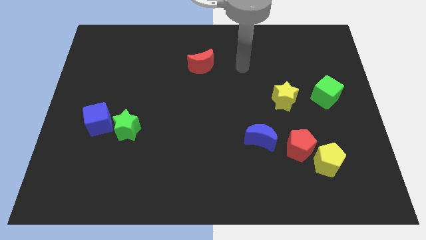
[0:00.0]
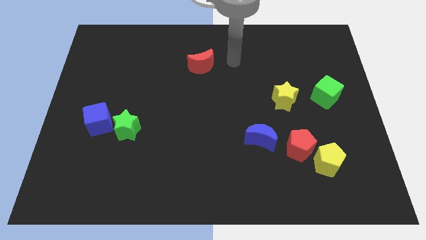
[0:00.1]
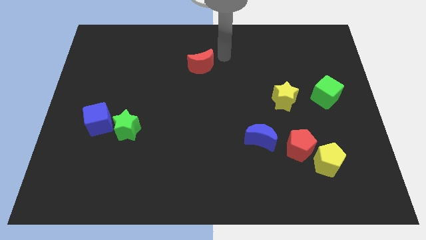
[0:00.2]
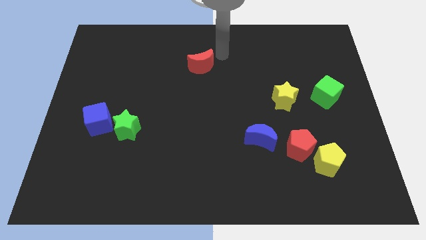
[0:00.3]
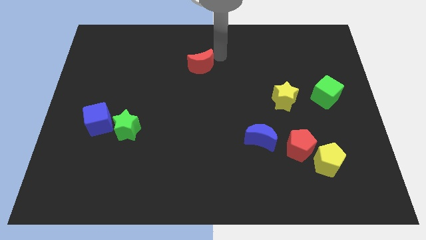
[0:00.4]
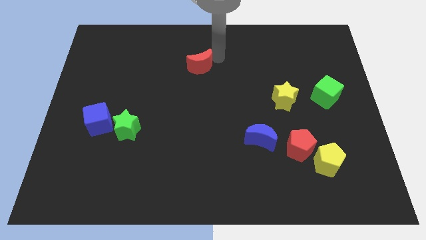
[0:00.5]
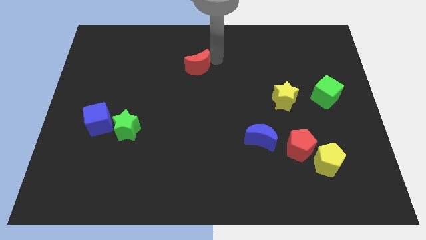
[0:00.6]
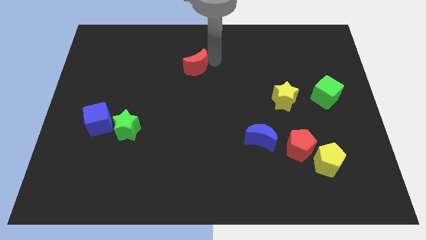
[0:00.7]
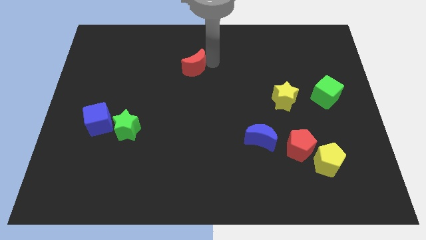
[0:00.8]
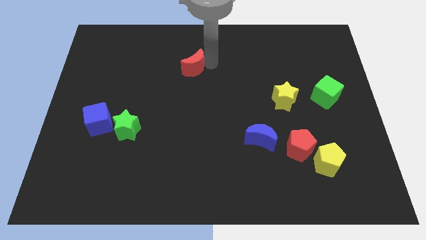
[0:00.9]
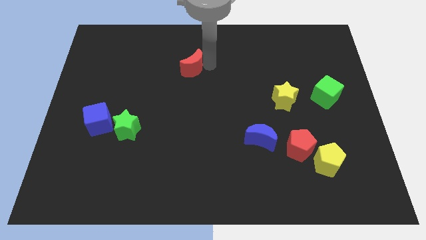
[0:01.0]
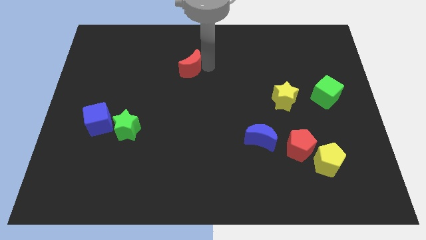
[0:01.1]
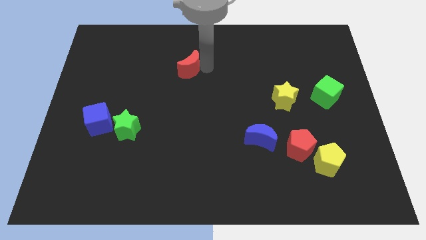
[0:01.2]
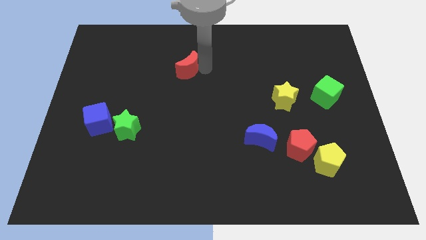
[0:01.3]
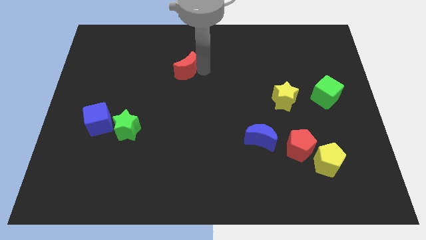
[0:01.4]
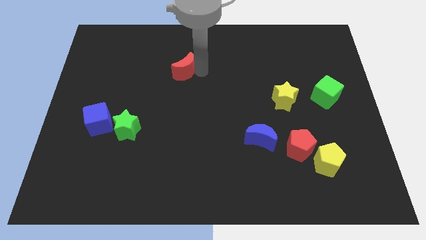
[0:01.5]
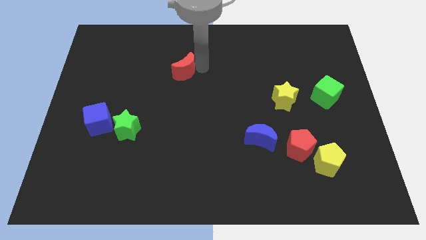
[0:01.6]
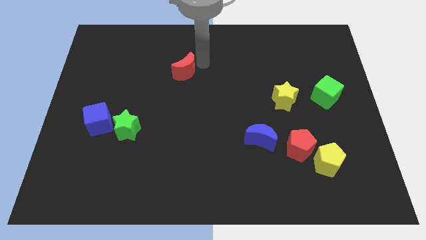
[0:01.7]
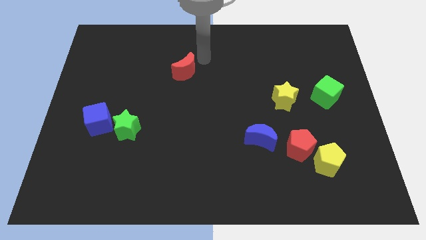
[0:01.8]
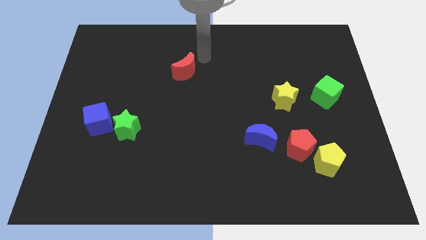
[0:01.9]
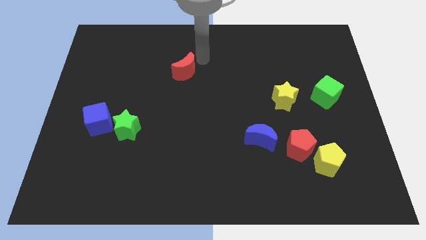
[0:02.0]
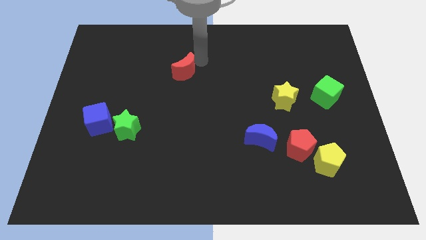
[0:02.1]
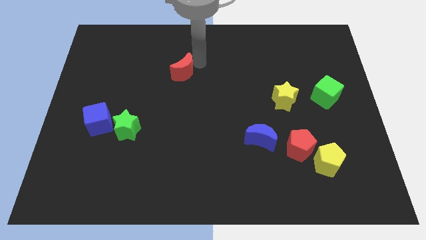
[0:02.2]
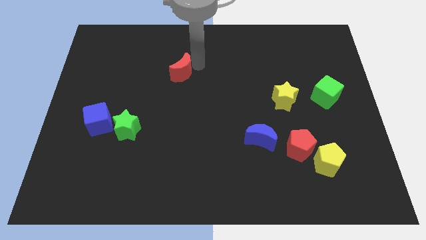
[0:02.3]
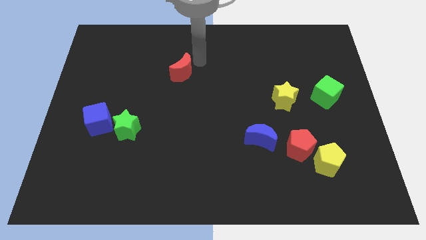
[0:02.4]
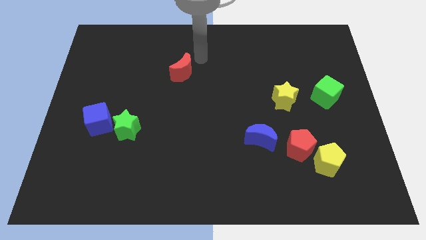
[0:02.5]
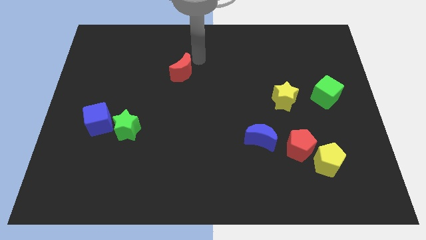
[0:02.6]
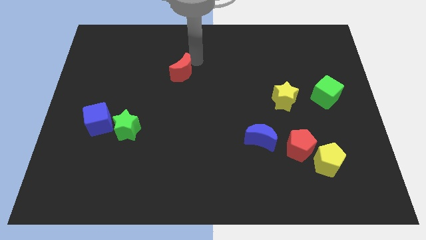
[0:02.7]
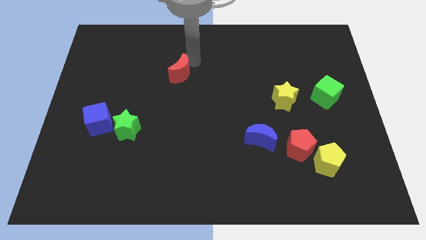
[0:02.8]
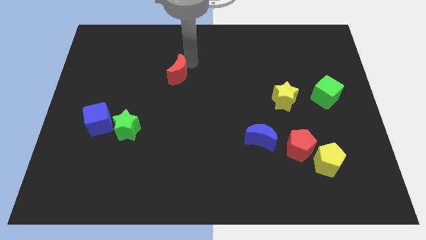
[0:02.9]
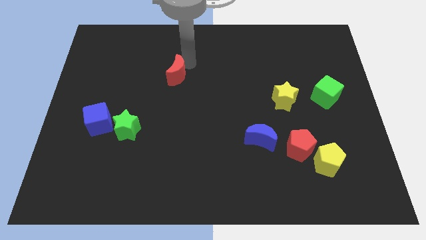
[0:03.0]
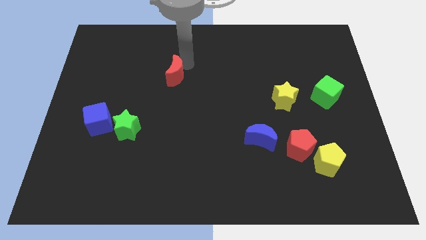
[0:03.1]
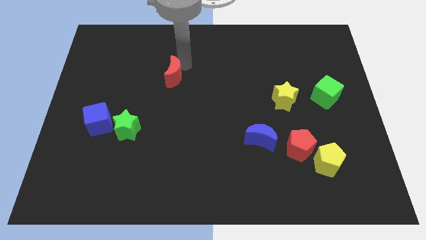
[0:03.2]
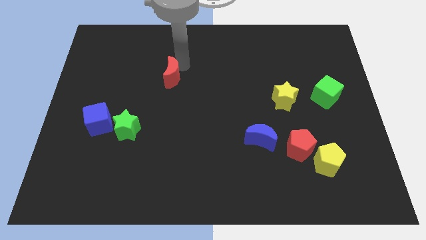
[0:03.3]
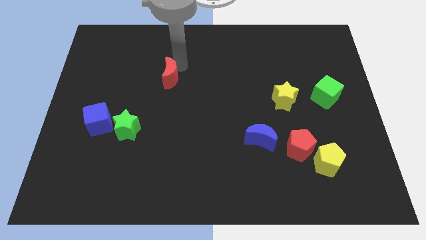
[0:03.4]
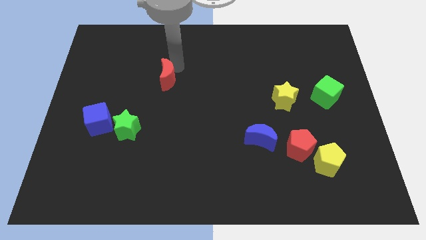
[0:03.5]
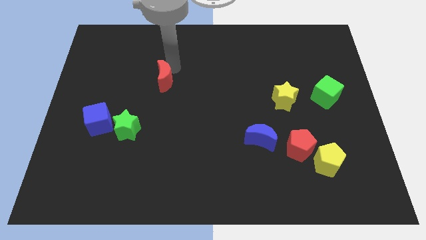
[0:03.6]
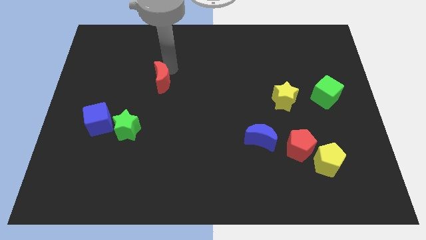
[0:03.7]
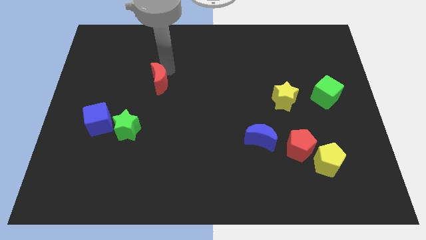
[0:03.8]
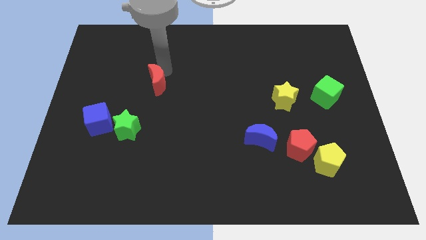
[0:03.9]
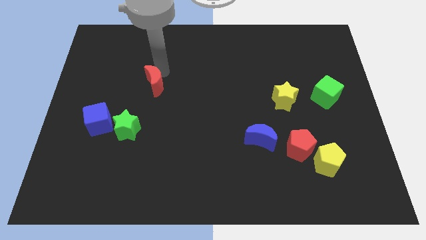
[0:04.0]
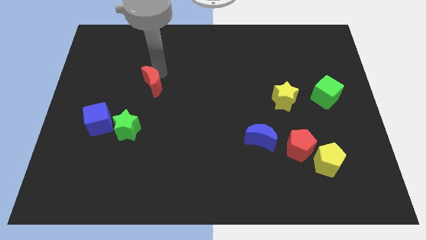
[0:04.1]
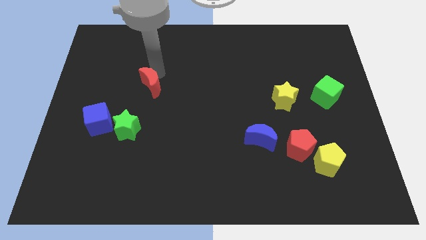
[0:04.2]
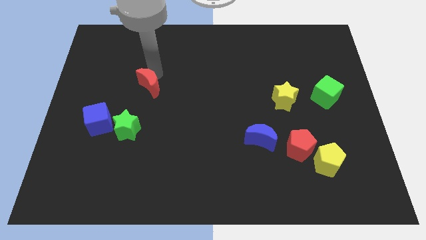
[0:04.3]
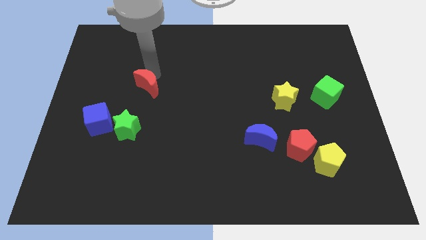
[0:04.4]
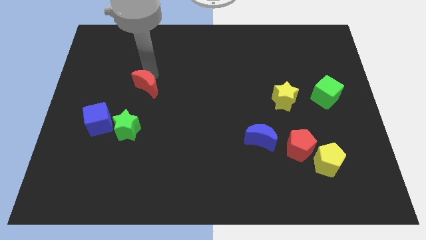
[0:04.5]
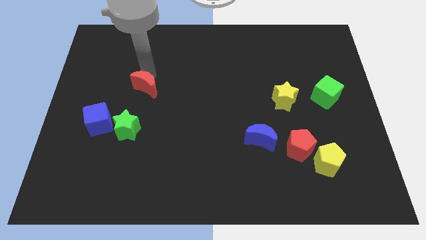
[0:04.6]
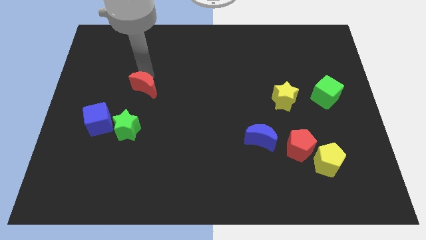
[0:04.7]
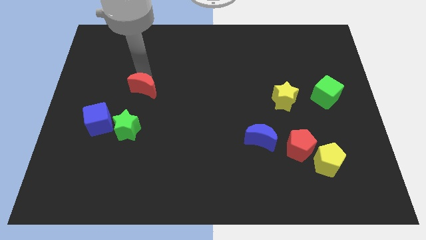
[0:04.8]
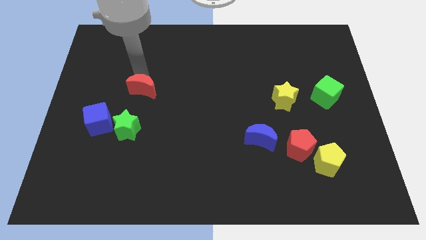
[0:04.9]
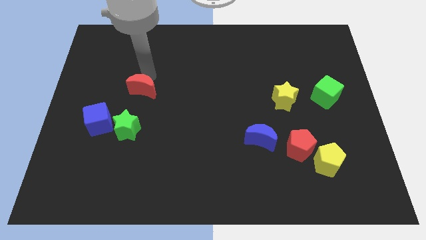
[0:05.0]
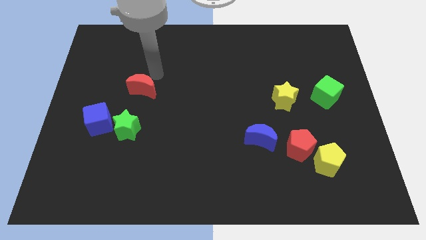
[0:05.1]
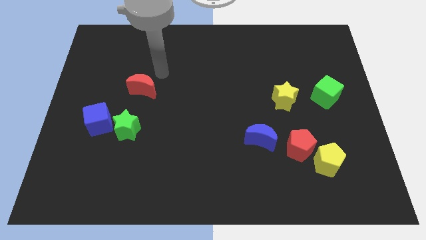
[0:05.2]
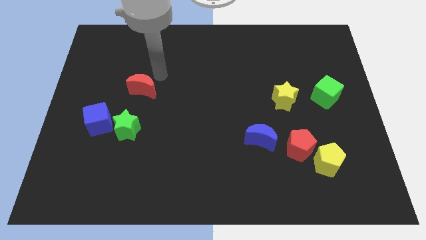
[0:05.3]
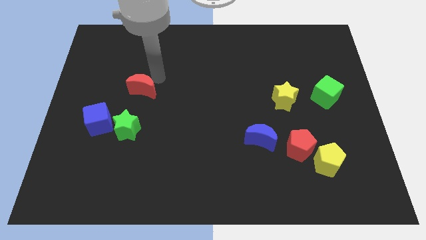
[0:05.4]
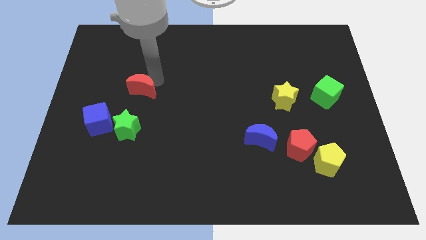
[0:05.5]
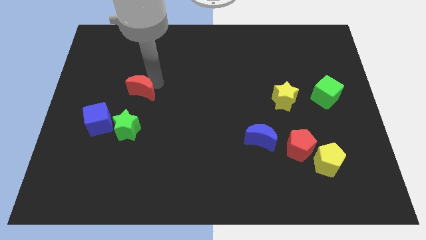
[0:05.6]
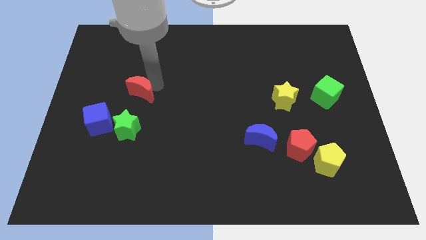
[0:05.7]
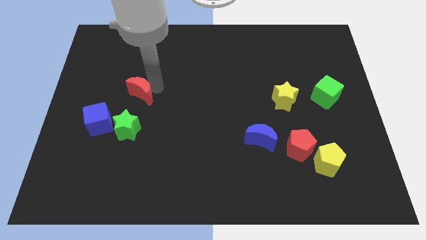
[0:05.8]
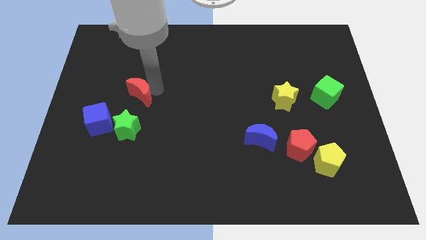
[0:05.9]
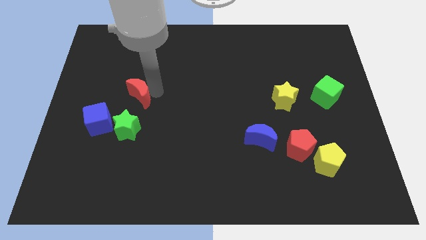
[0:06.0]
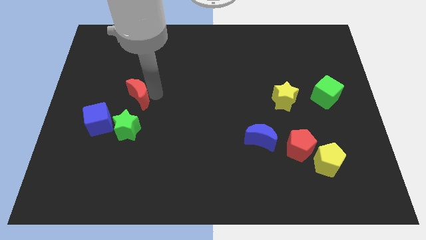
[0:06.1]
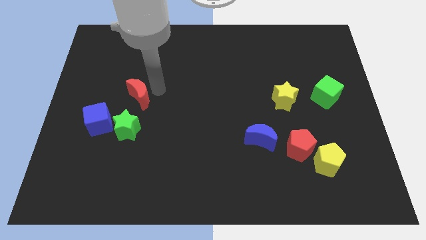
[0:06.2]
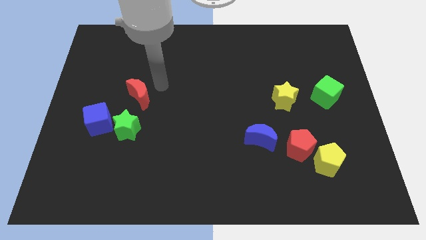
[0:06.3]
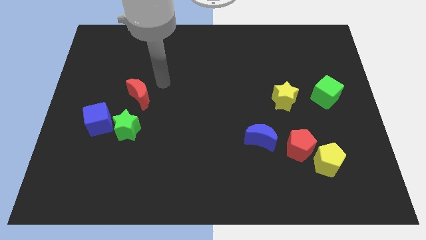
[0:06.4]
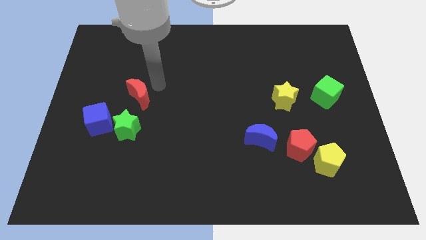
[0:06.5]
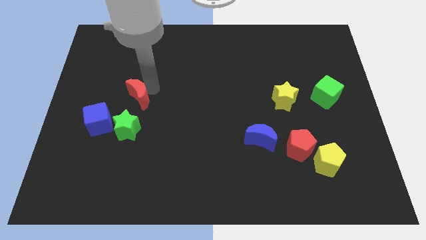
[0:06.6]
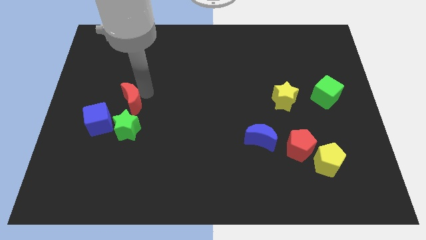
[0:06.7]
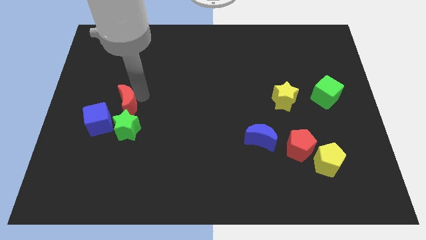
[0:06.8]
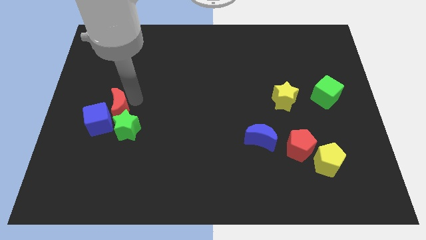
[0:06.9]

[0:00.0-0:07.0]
move the red moon next to the blue cube

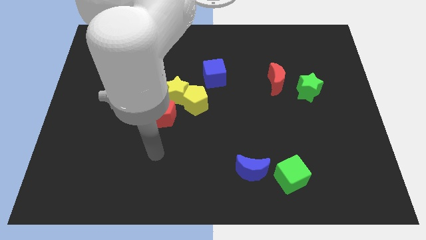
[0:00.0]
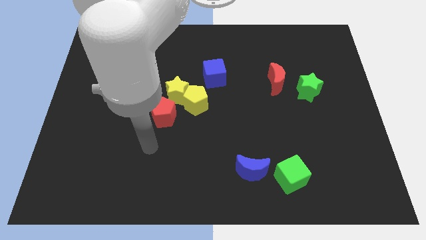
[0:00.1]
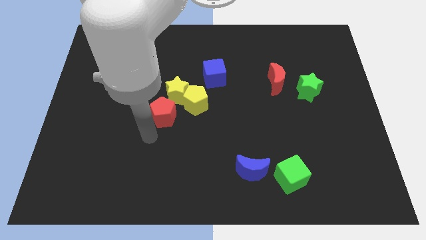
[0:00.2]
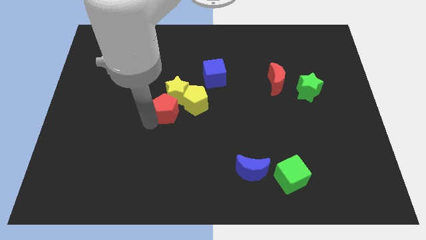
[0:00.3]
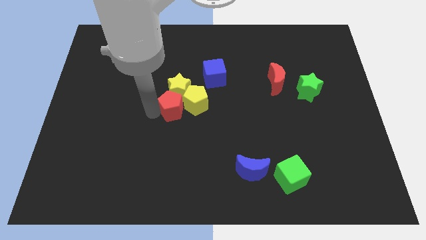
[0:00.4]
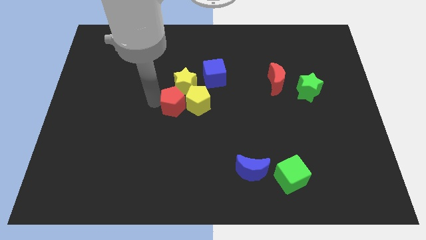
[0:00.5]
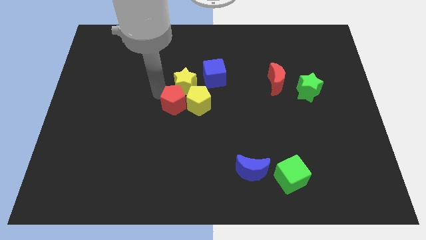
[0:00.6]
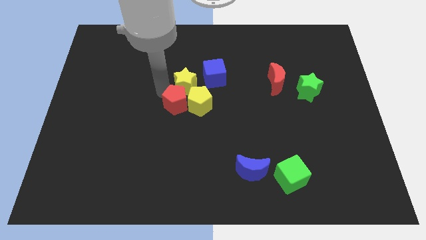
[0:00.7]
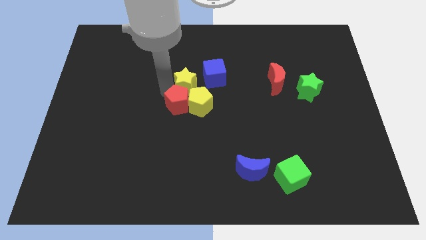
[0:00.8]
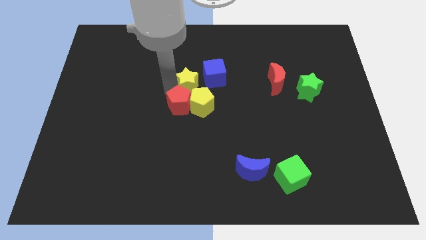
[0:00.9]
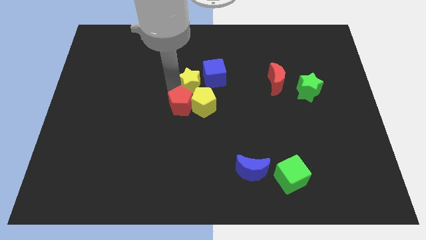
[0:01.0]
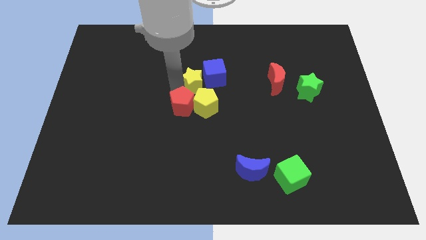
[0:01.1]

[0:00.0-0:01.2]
put the yellow star close to the blue cube
